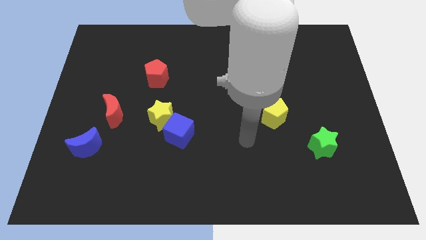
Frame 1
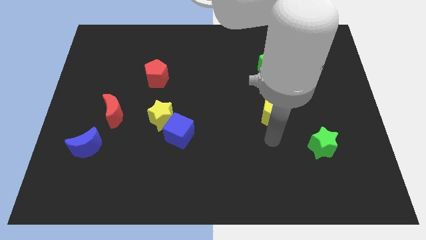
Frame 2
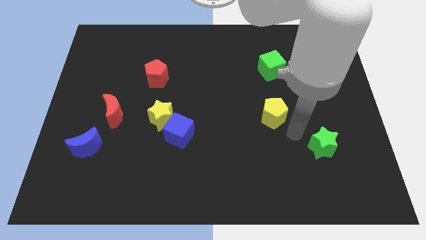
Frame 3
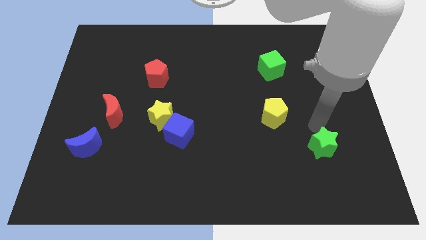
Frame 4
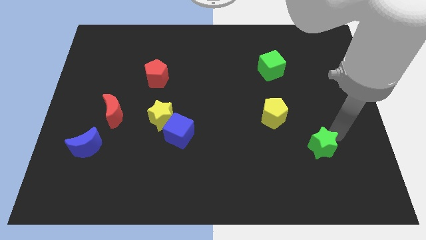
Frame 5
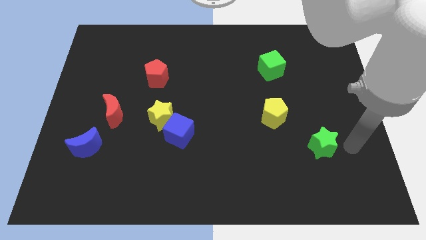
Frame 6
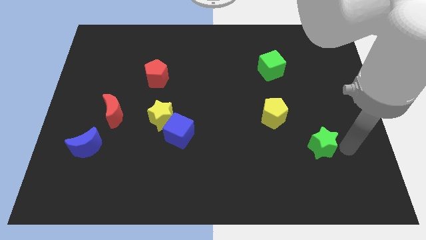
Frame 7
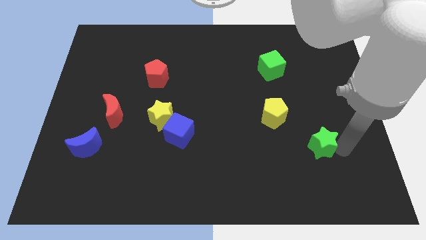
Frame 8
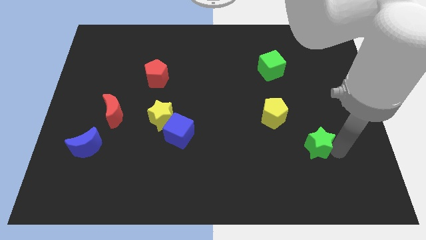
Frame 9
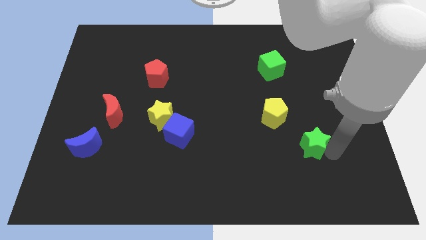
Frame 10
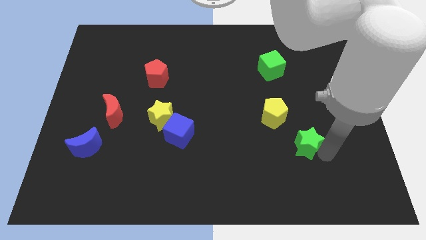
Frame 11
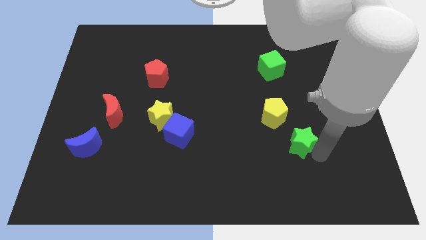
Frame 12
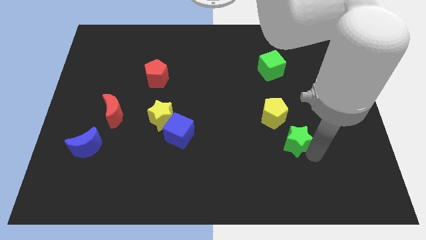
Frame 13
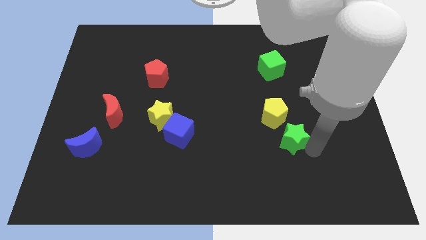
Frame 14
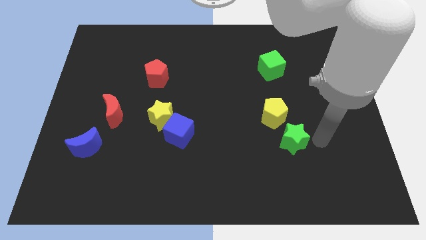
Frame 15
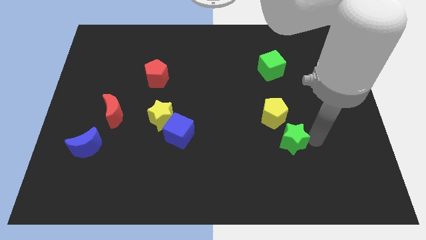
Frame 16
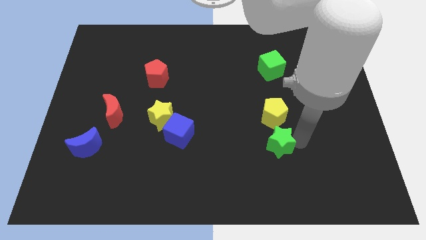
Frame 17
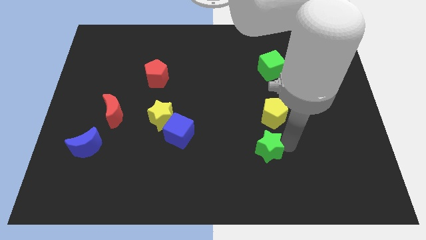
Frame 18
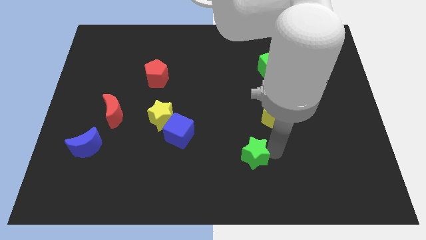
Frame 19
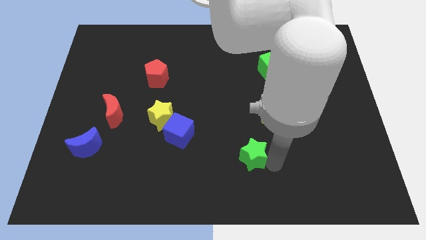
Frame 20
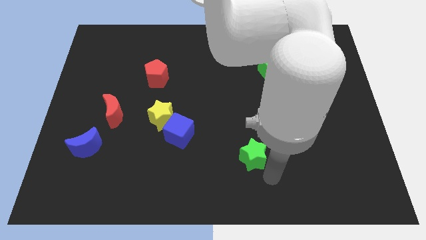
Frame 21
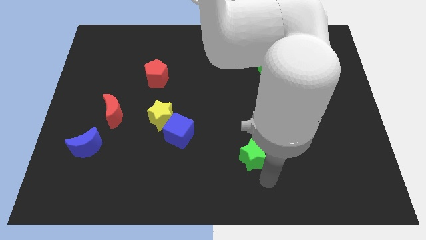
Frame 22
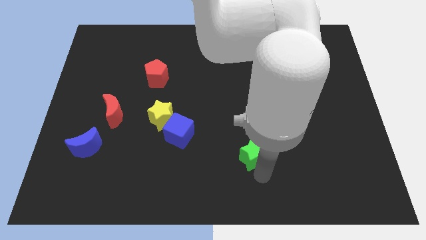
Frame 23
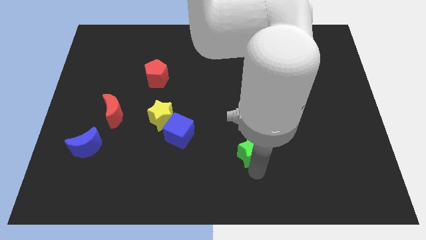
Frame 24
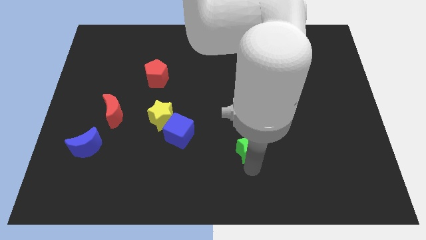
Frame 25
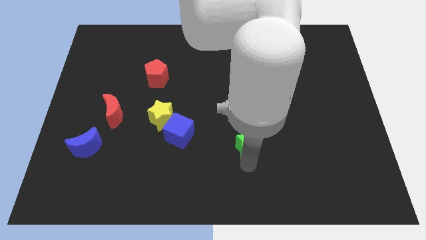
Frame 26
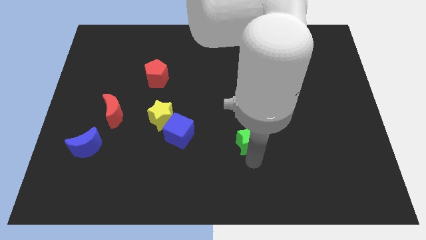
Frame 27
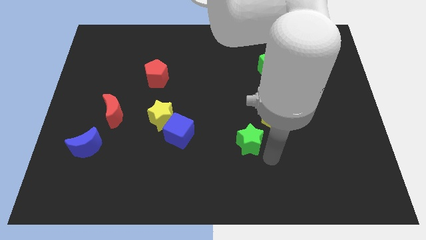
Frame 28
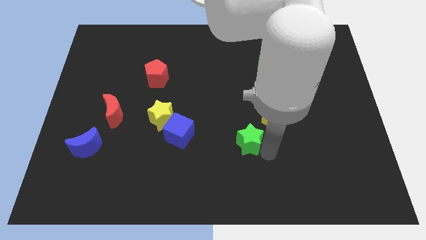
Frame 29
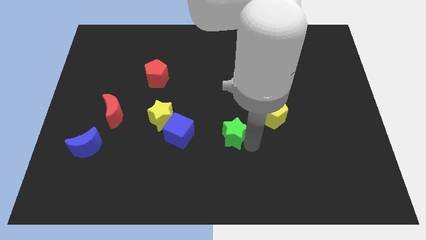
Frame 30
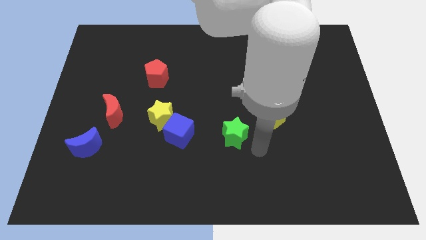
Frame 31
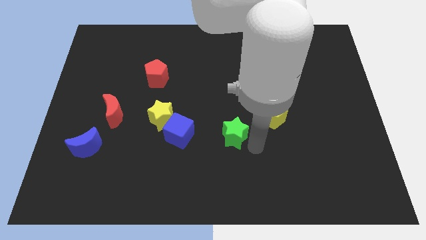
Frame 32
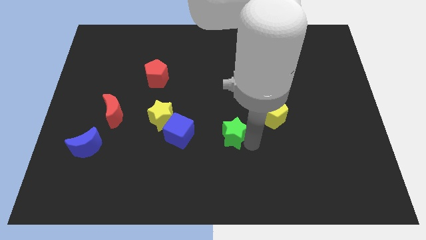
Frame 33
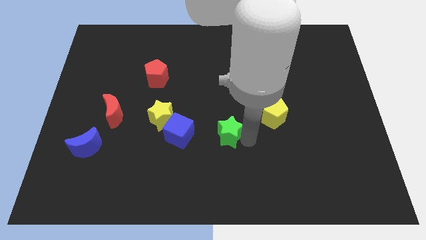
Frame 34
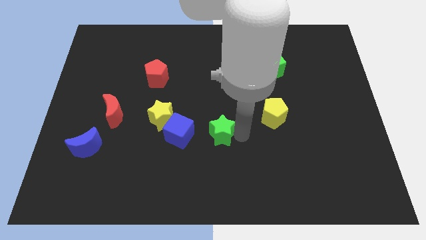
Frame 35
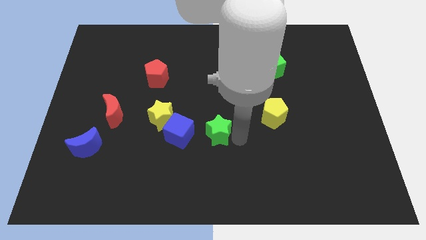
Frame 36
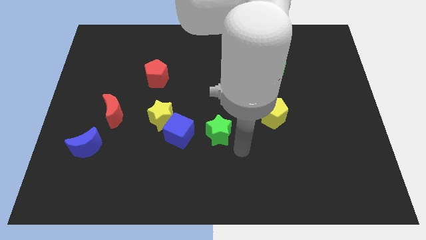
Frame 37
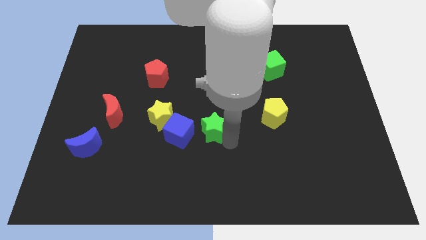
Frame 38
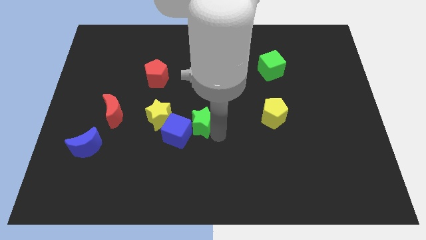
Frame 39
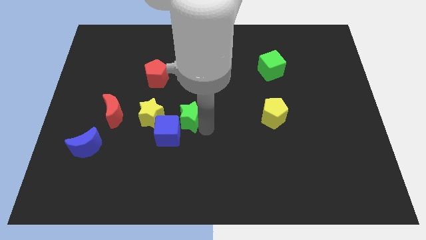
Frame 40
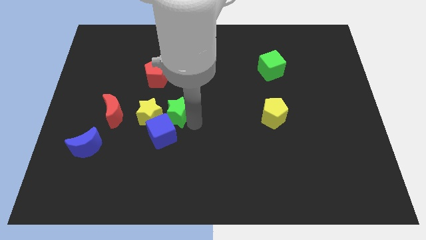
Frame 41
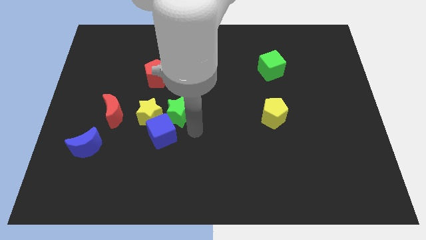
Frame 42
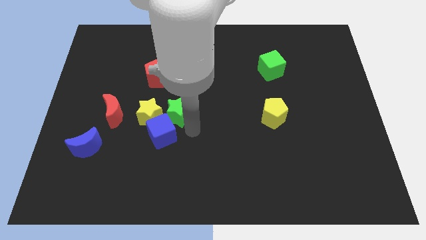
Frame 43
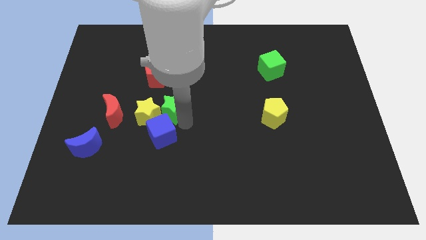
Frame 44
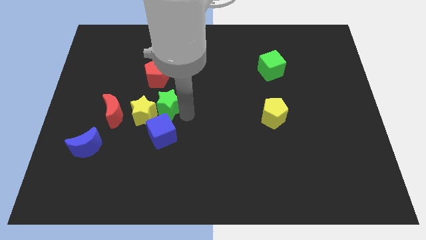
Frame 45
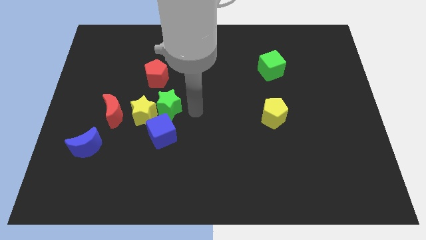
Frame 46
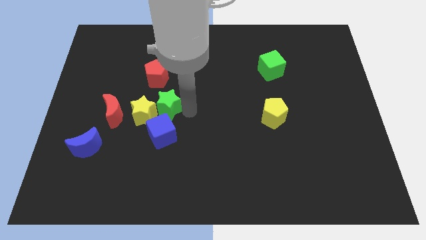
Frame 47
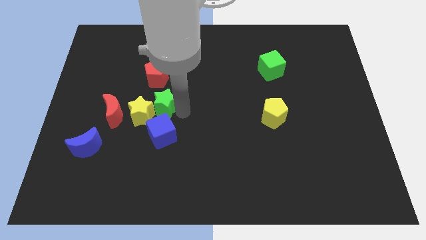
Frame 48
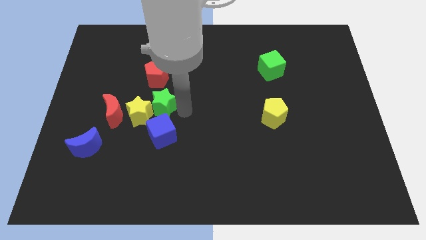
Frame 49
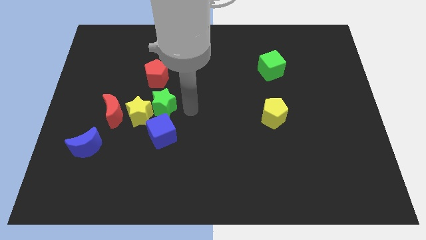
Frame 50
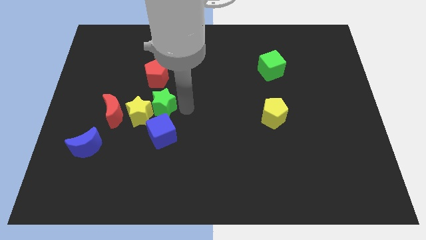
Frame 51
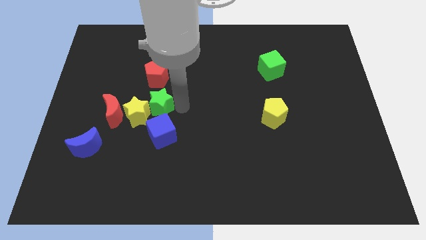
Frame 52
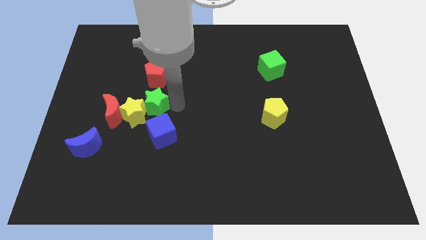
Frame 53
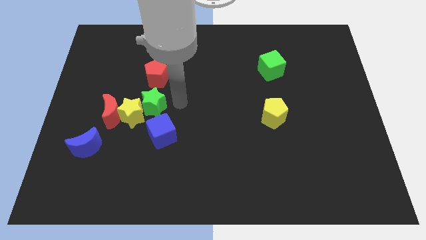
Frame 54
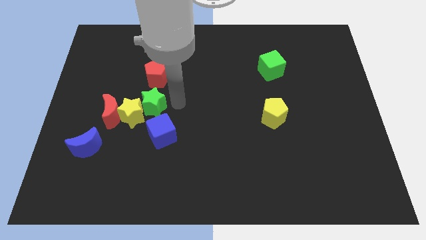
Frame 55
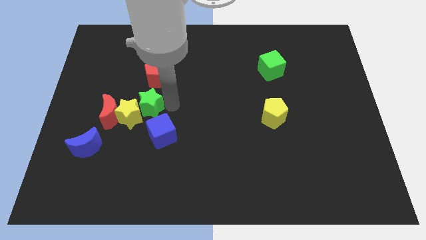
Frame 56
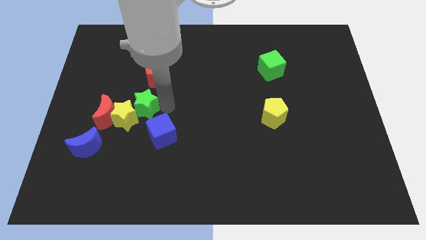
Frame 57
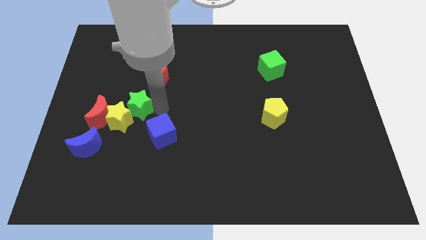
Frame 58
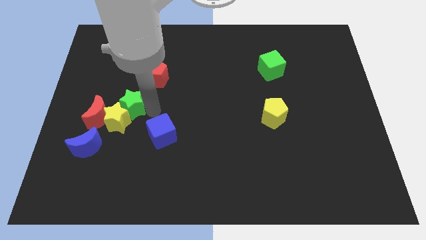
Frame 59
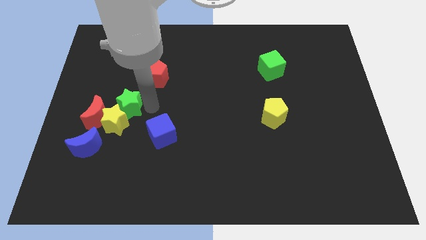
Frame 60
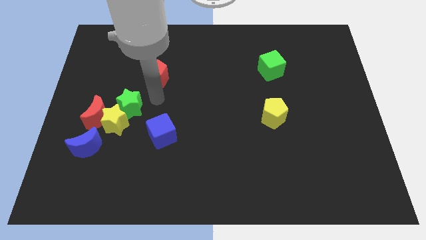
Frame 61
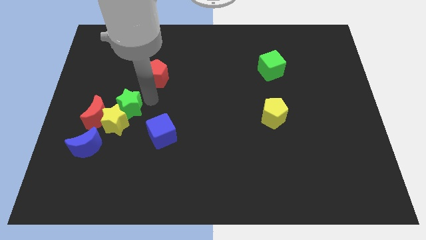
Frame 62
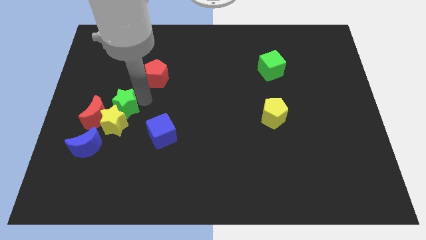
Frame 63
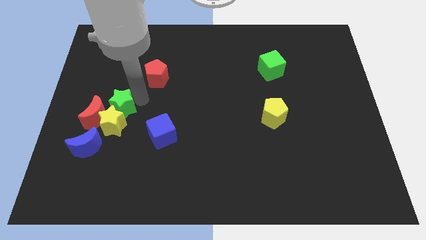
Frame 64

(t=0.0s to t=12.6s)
push the green star close to the red moon

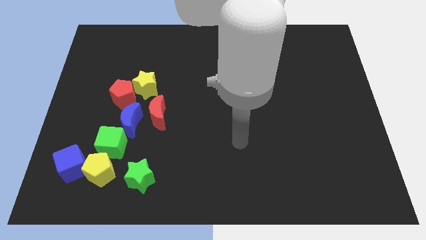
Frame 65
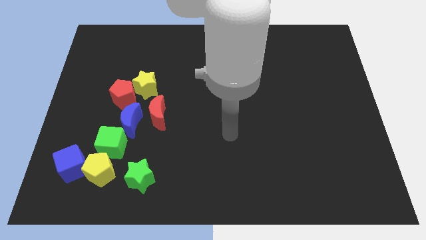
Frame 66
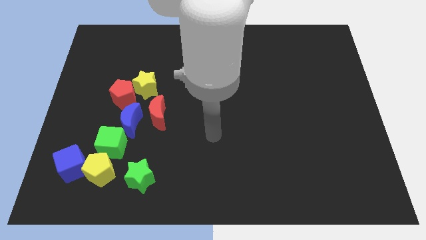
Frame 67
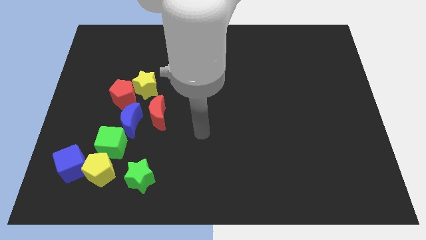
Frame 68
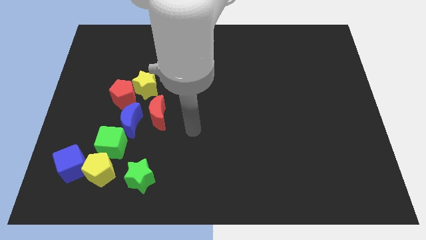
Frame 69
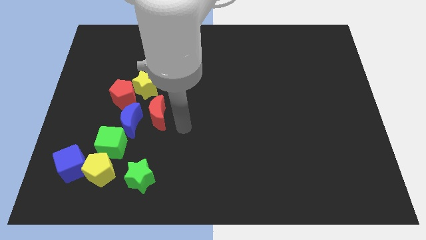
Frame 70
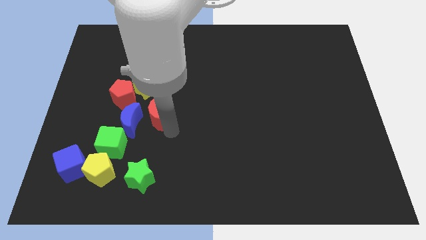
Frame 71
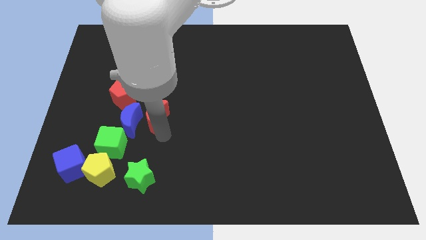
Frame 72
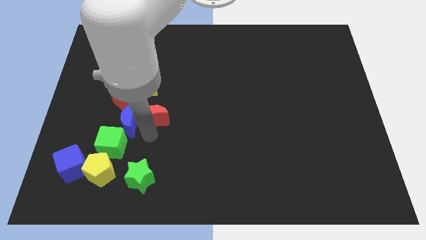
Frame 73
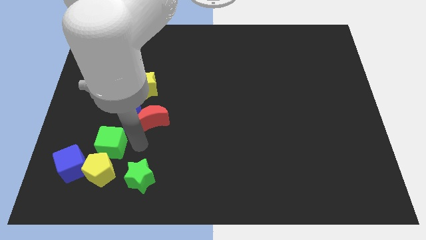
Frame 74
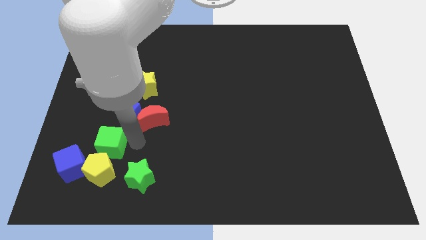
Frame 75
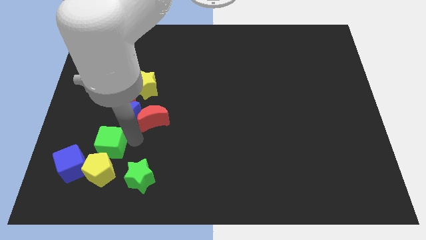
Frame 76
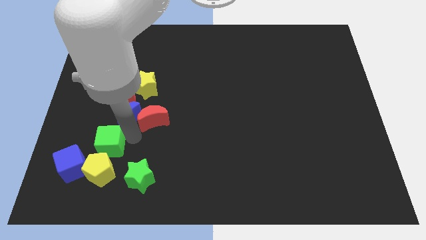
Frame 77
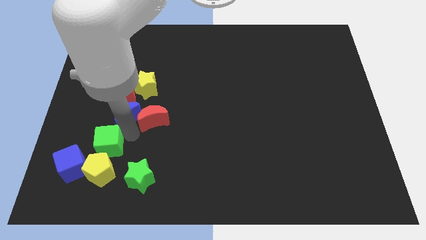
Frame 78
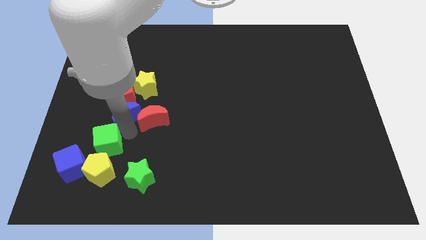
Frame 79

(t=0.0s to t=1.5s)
put the blue moon towards the red pentagon
